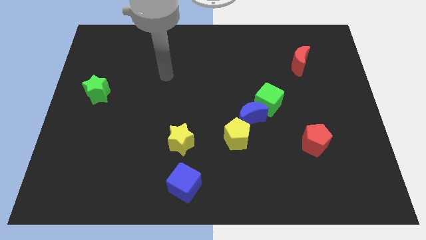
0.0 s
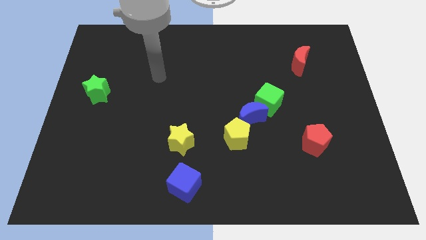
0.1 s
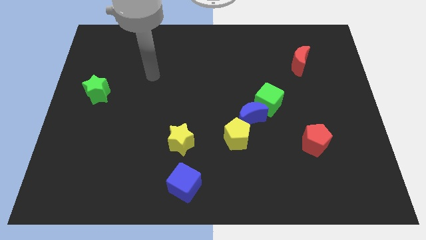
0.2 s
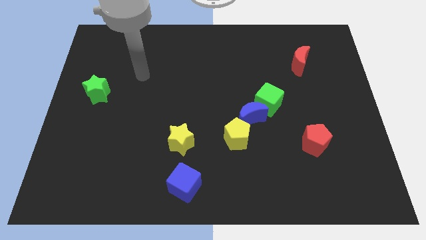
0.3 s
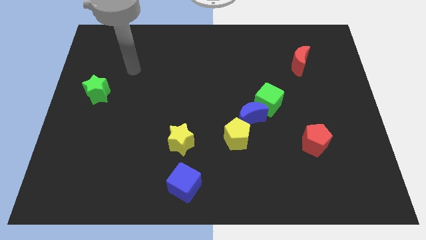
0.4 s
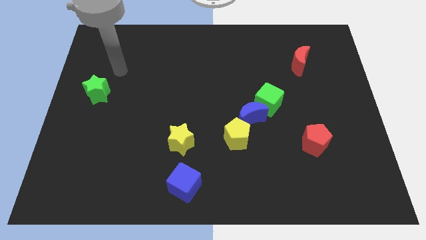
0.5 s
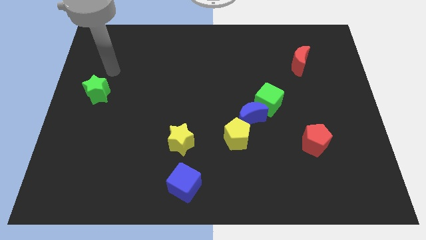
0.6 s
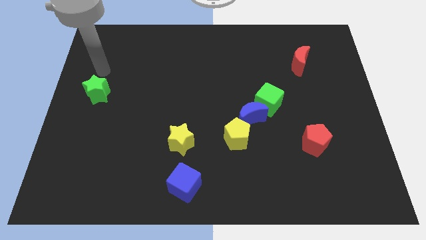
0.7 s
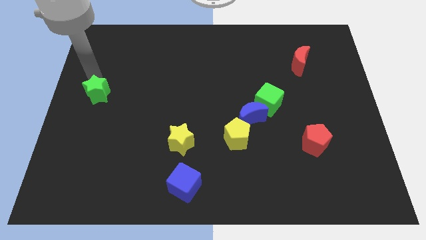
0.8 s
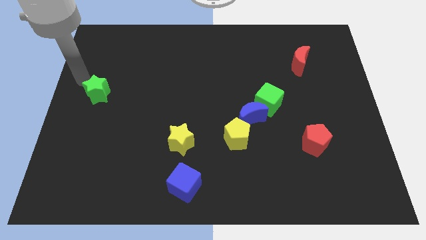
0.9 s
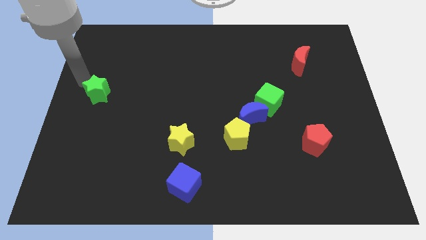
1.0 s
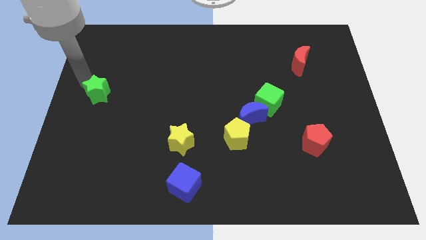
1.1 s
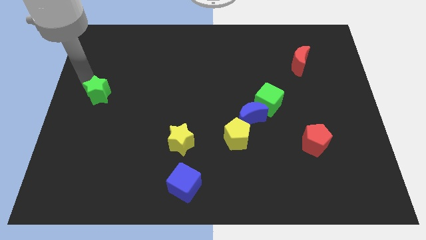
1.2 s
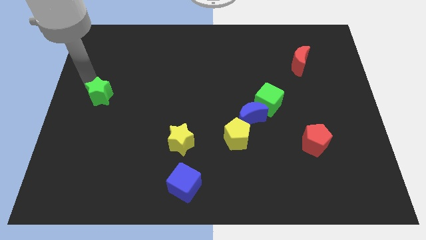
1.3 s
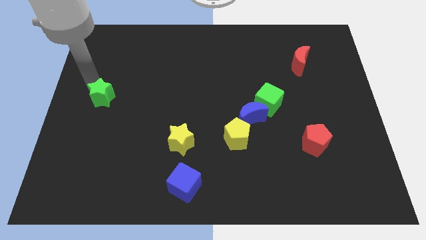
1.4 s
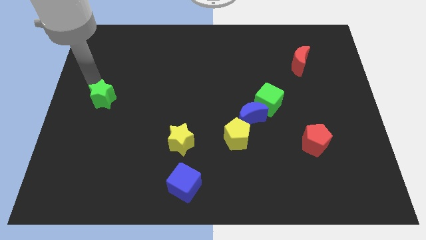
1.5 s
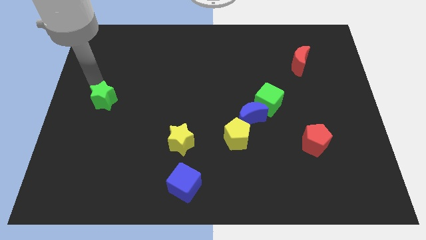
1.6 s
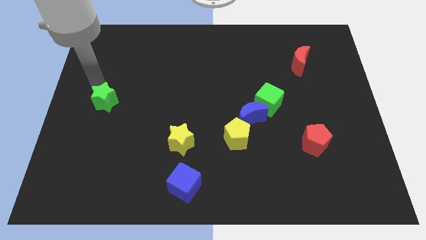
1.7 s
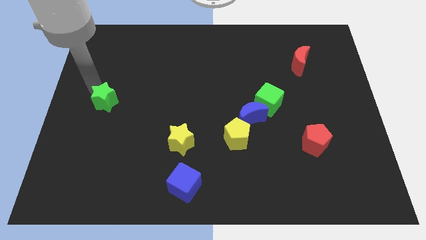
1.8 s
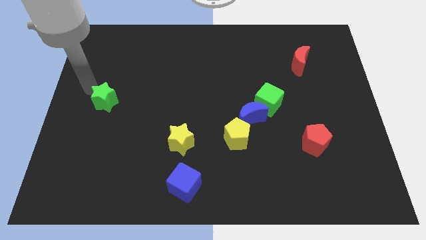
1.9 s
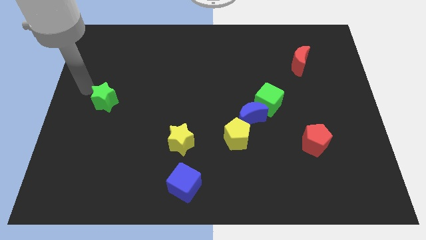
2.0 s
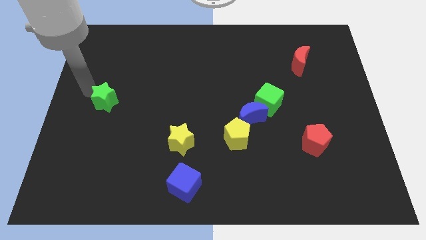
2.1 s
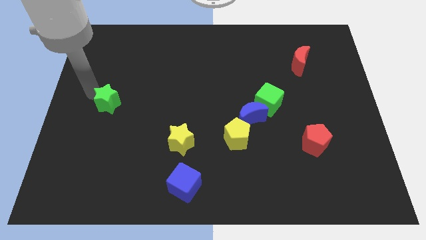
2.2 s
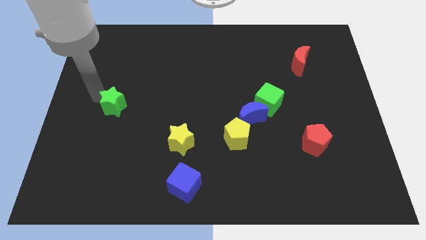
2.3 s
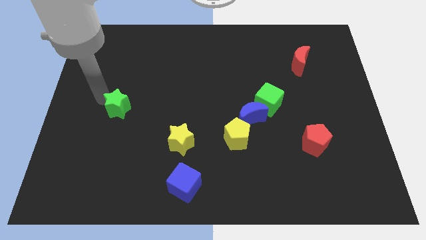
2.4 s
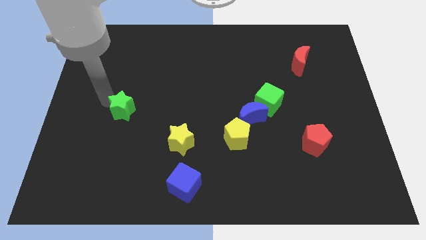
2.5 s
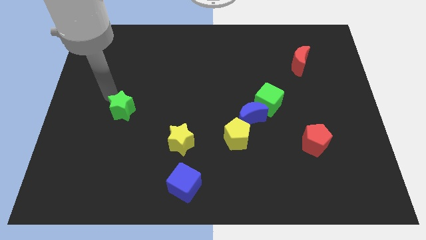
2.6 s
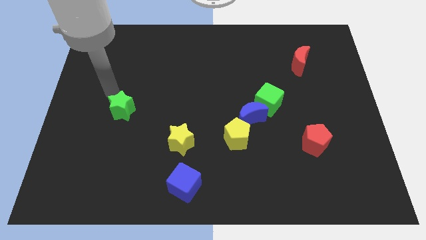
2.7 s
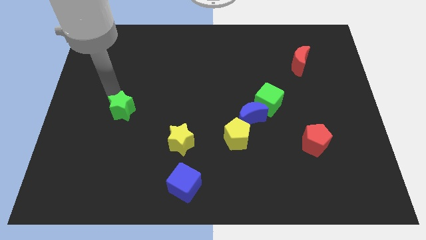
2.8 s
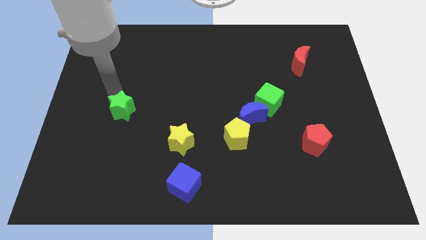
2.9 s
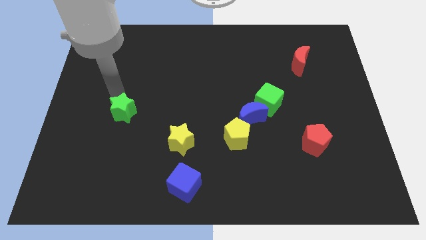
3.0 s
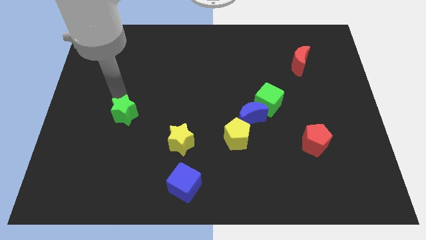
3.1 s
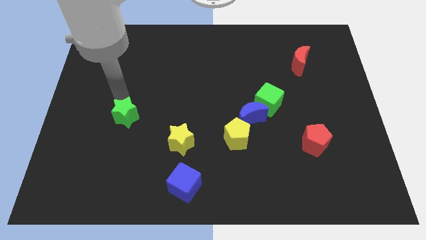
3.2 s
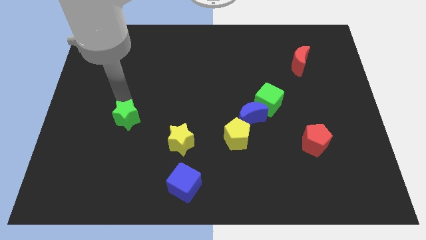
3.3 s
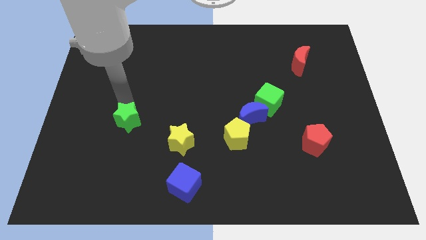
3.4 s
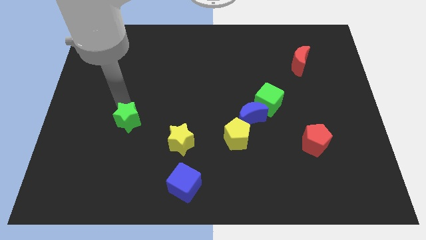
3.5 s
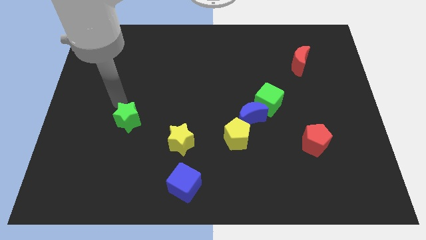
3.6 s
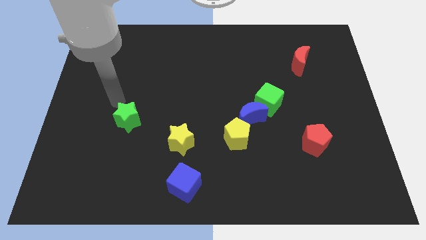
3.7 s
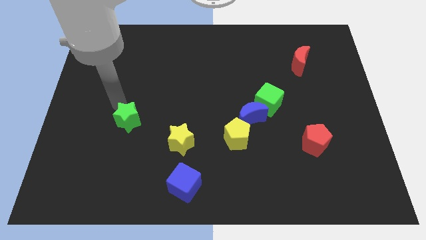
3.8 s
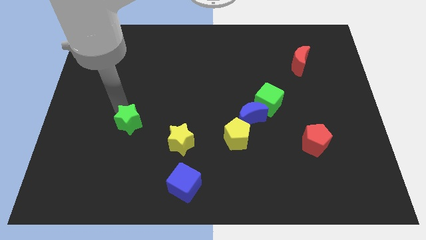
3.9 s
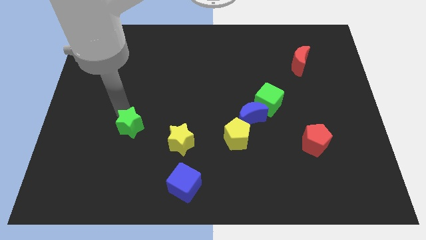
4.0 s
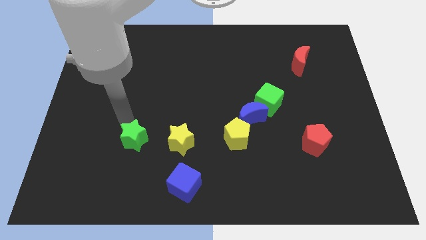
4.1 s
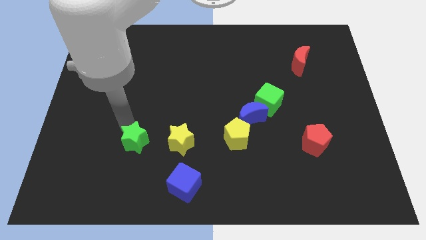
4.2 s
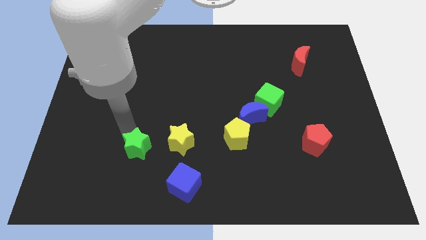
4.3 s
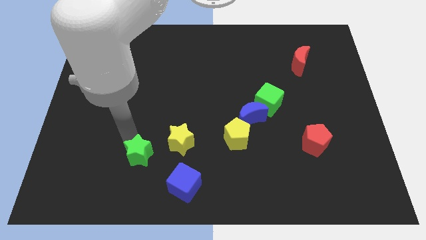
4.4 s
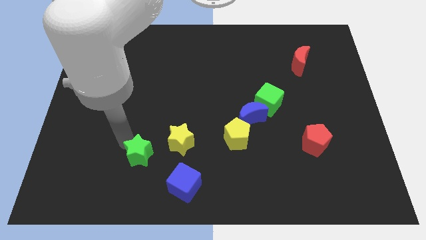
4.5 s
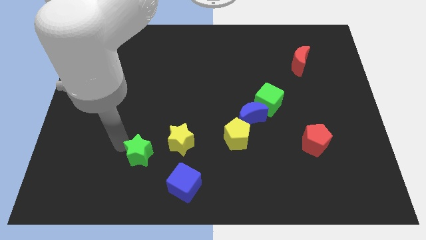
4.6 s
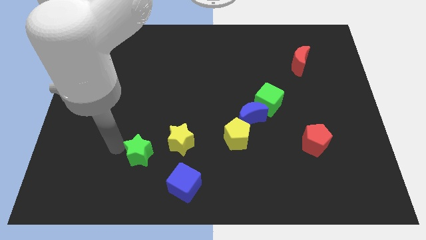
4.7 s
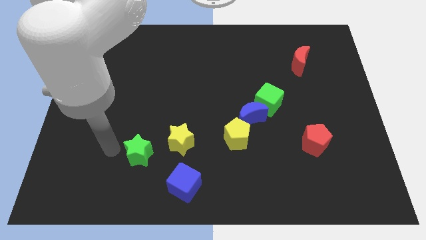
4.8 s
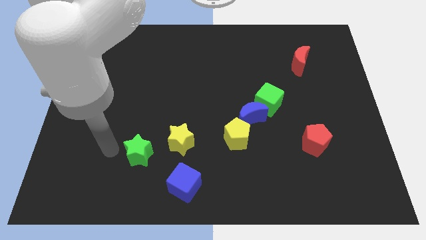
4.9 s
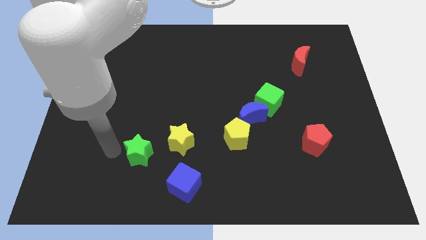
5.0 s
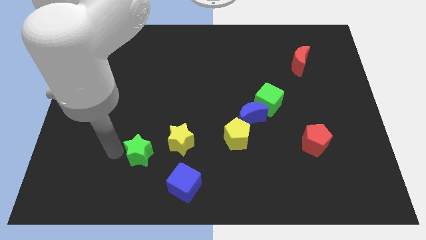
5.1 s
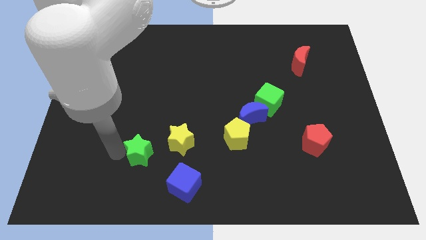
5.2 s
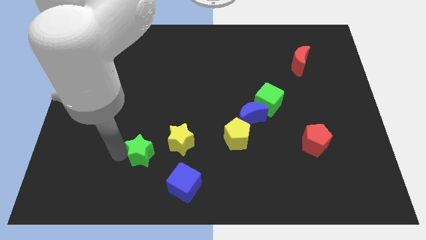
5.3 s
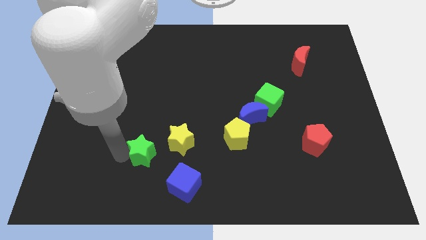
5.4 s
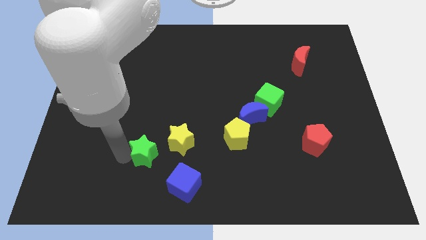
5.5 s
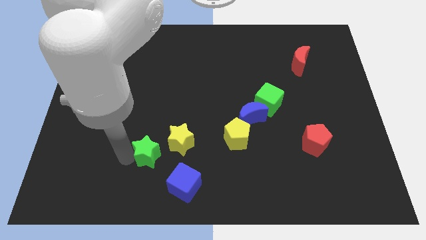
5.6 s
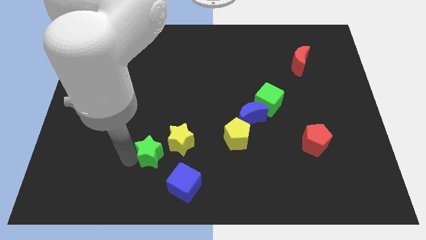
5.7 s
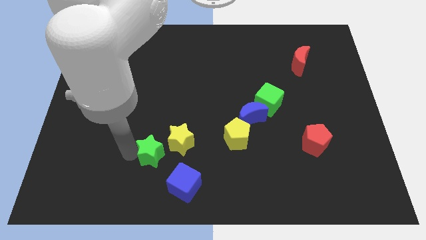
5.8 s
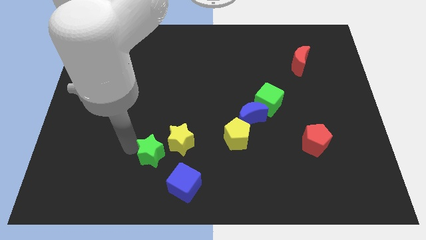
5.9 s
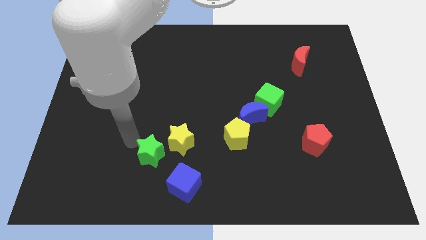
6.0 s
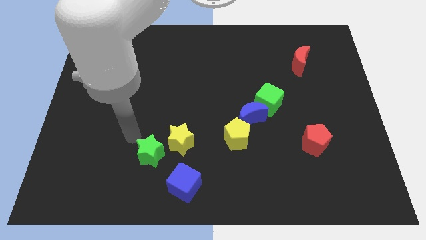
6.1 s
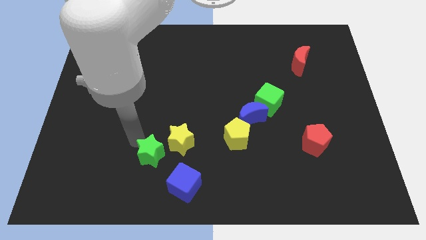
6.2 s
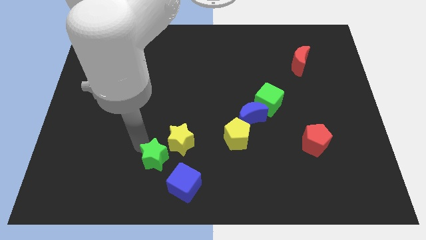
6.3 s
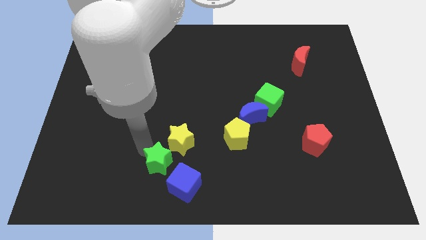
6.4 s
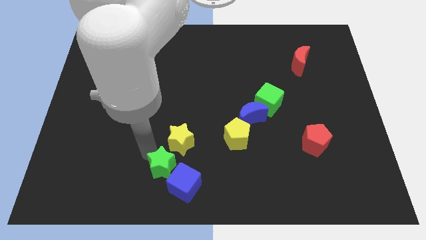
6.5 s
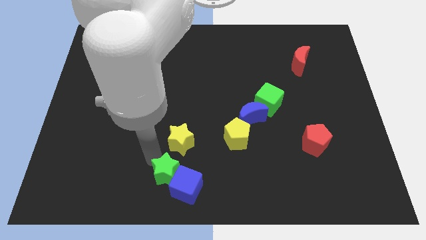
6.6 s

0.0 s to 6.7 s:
push the green star towards the blue cube

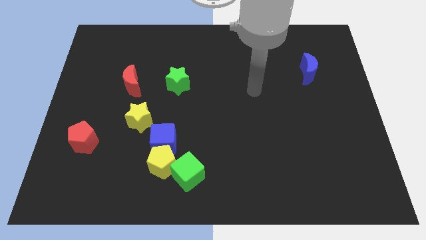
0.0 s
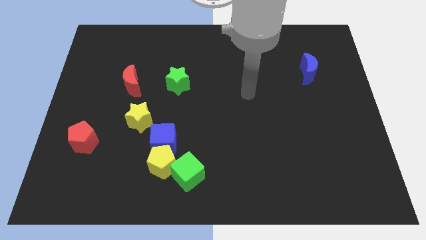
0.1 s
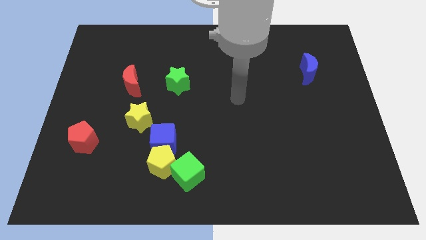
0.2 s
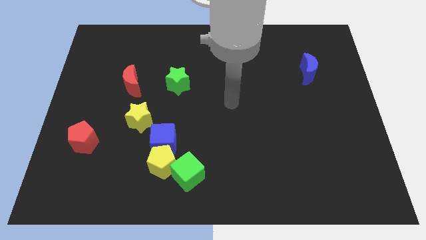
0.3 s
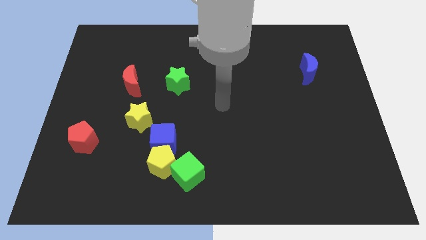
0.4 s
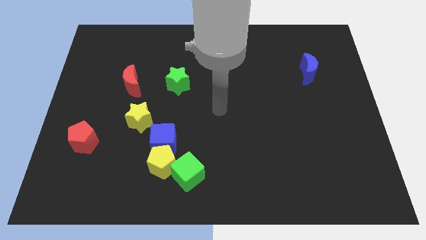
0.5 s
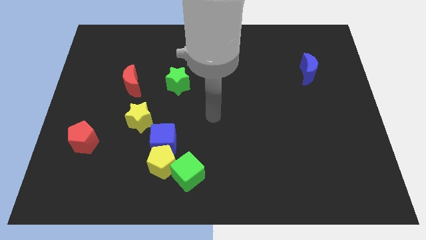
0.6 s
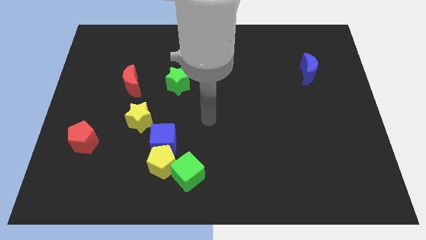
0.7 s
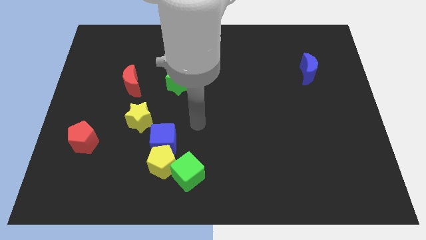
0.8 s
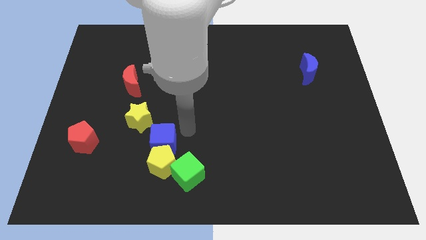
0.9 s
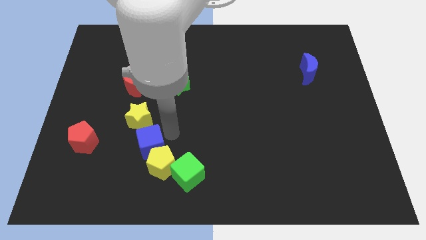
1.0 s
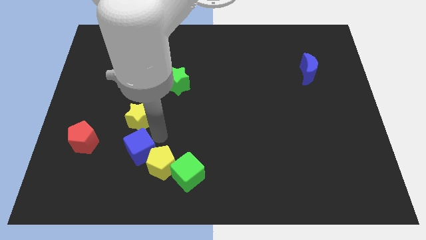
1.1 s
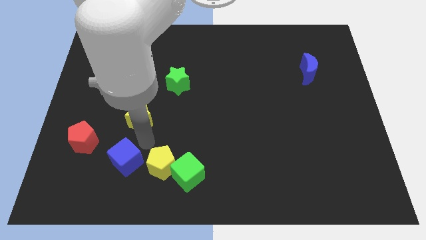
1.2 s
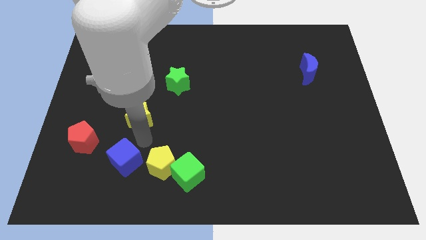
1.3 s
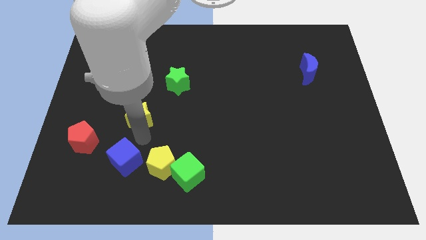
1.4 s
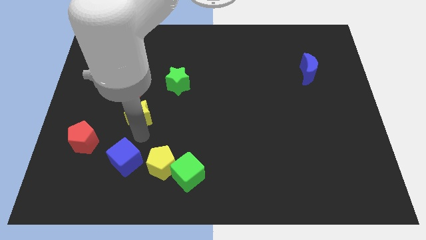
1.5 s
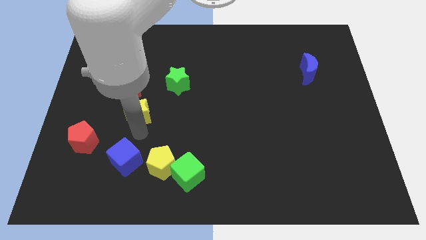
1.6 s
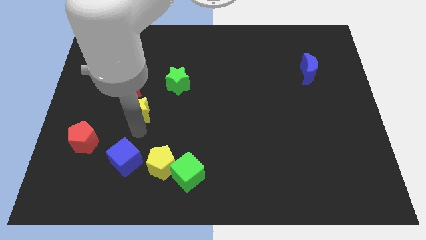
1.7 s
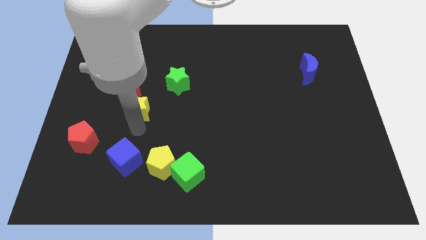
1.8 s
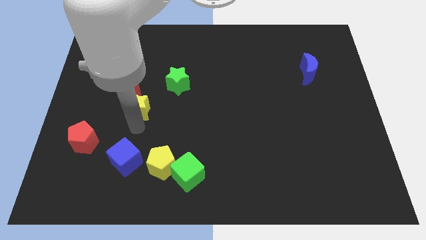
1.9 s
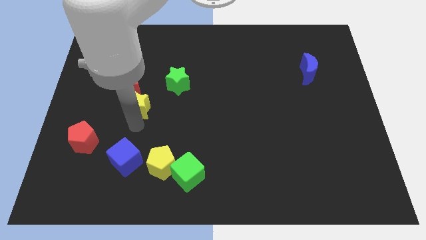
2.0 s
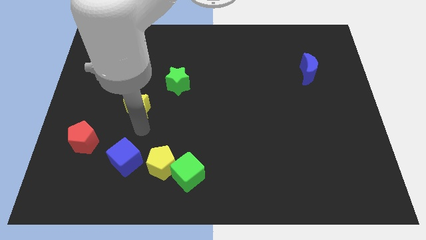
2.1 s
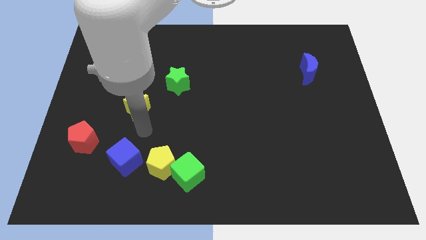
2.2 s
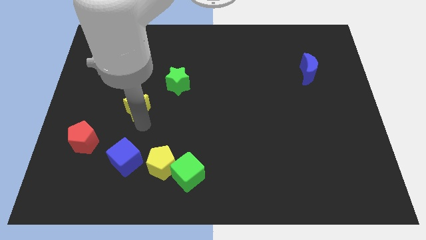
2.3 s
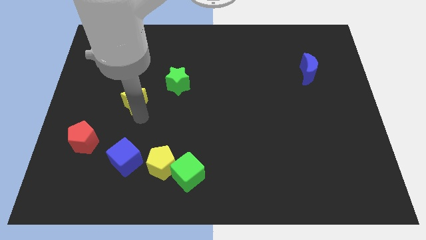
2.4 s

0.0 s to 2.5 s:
push the yellow star next to the red moon
